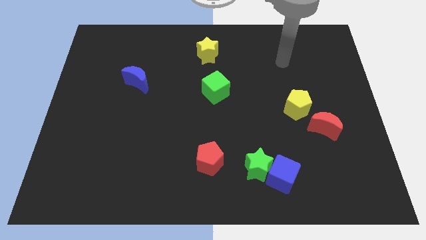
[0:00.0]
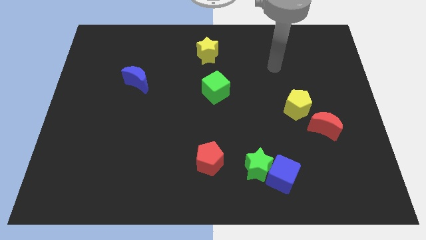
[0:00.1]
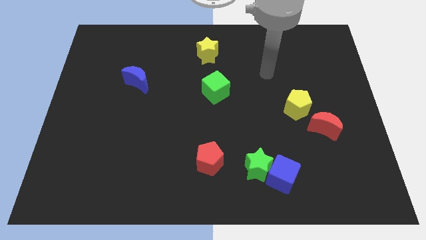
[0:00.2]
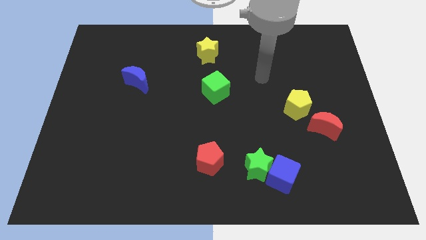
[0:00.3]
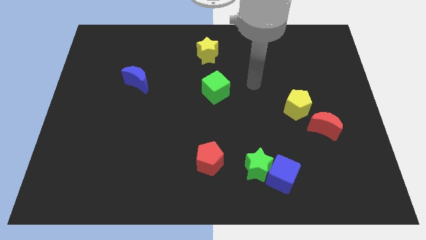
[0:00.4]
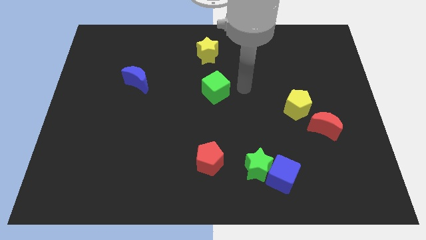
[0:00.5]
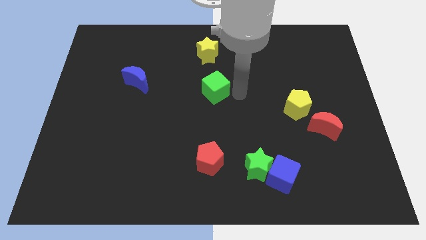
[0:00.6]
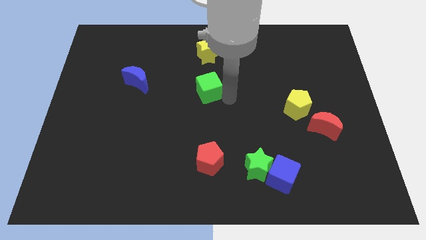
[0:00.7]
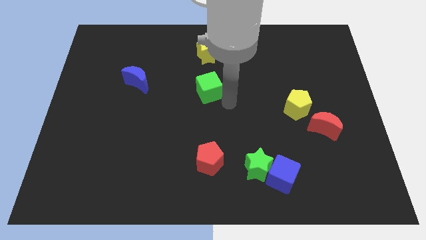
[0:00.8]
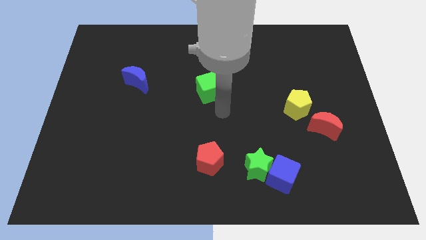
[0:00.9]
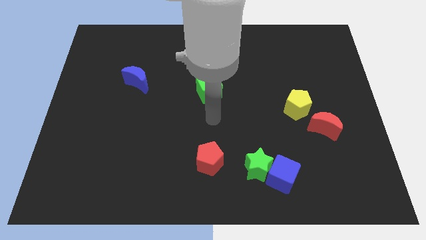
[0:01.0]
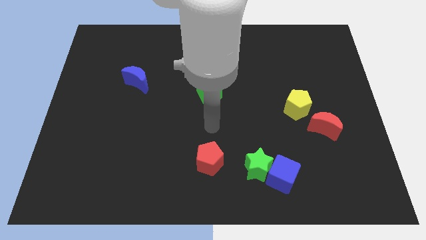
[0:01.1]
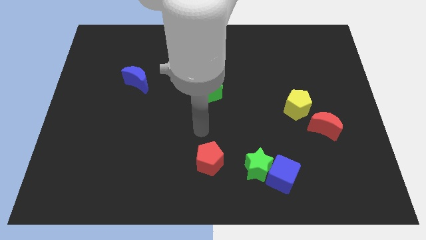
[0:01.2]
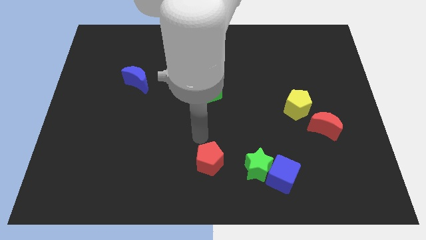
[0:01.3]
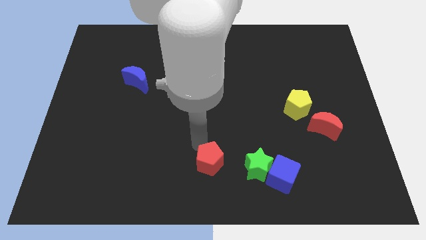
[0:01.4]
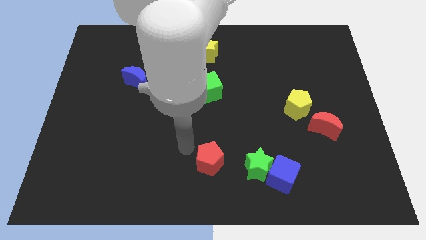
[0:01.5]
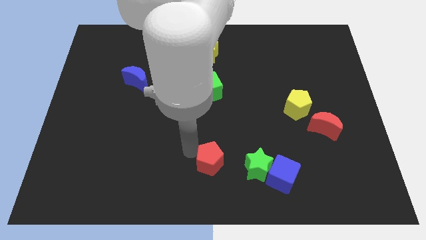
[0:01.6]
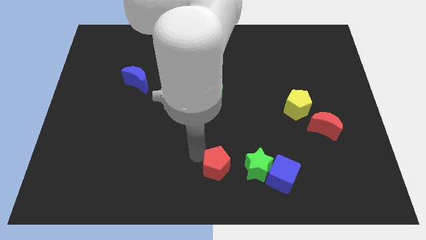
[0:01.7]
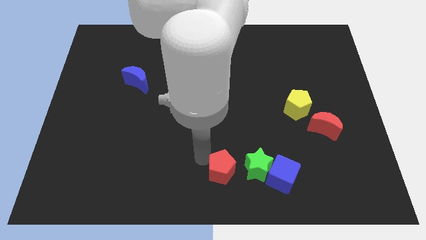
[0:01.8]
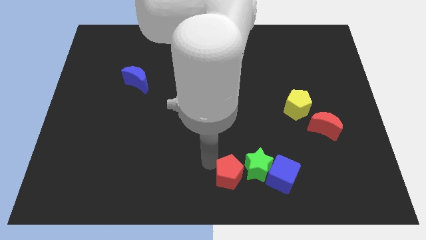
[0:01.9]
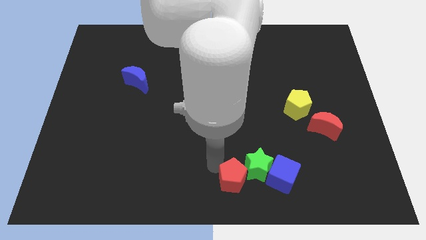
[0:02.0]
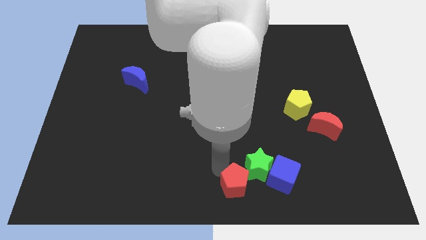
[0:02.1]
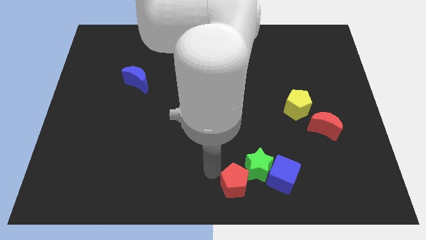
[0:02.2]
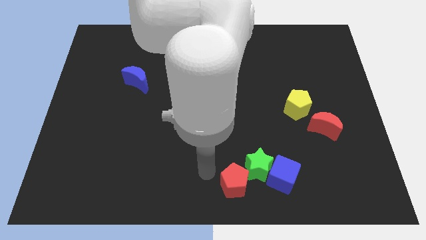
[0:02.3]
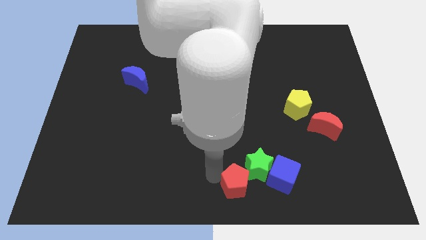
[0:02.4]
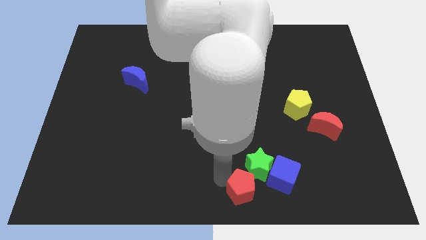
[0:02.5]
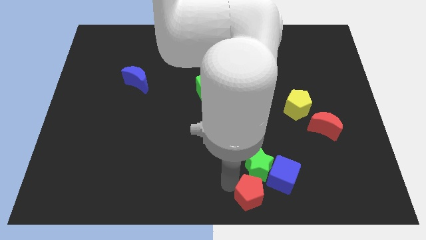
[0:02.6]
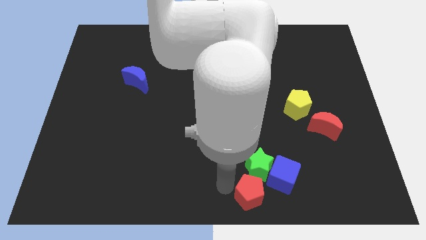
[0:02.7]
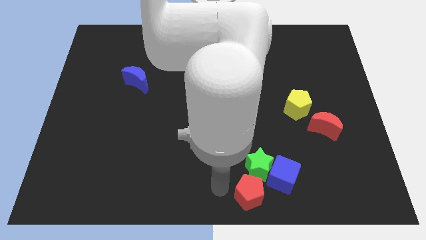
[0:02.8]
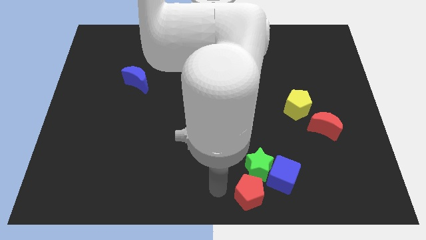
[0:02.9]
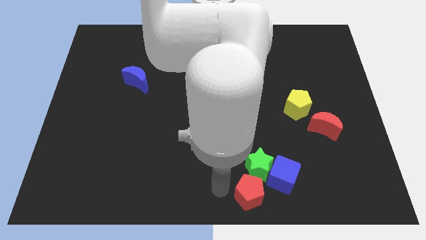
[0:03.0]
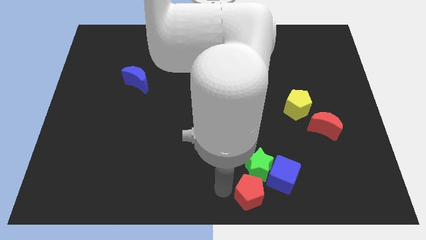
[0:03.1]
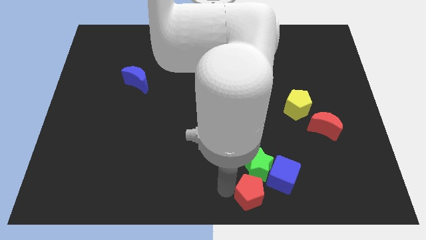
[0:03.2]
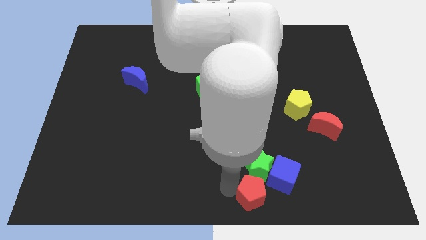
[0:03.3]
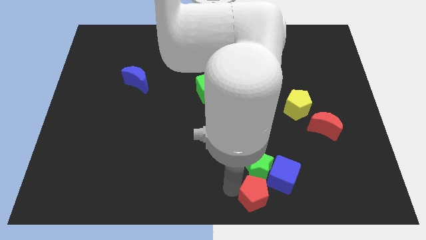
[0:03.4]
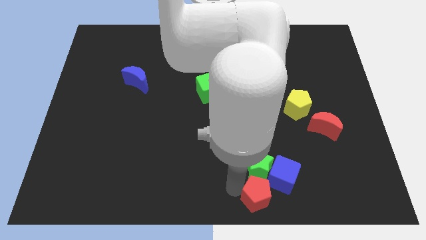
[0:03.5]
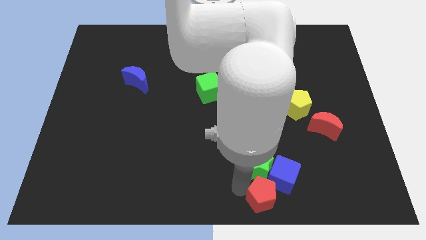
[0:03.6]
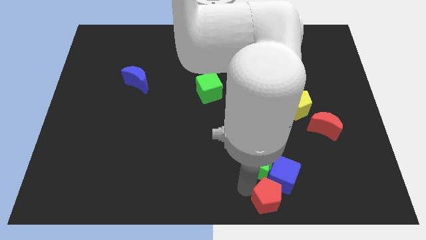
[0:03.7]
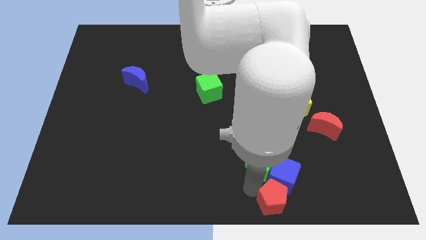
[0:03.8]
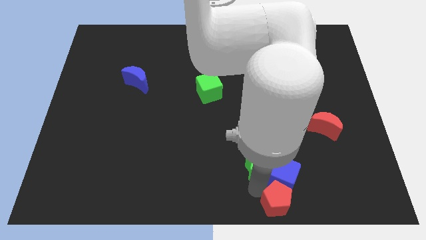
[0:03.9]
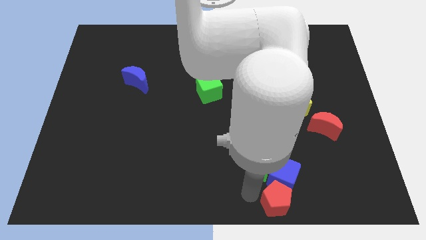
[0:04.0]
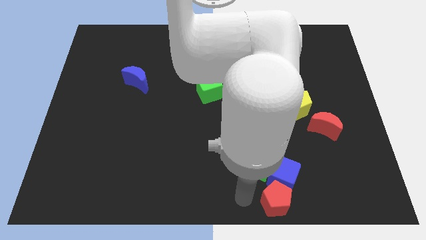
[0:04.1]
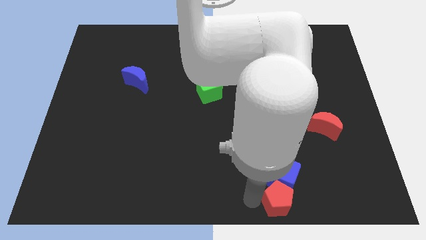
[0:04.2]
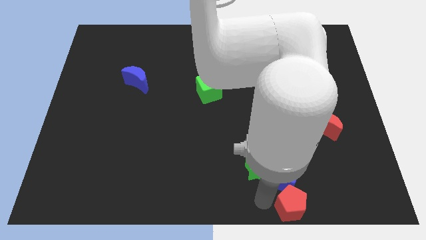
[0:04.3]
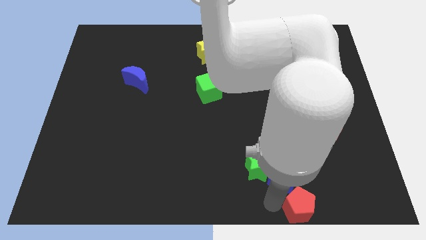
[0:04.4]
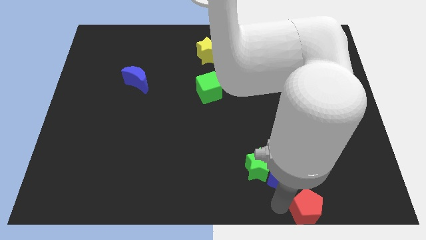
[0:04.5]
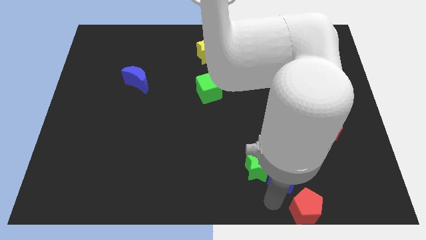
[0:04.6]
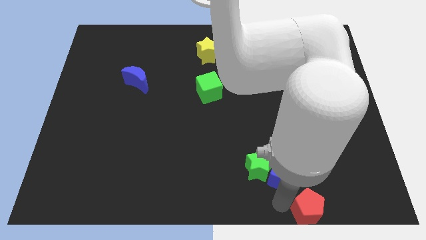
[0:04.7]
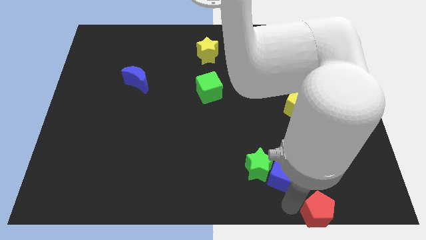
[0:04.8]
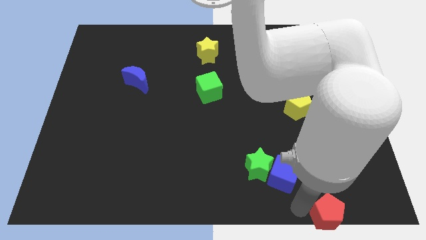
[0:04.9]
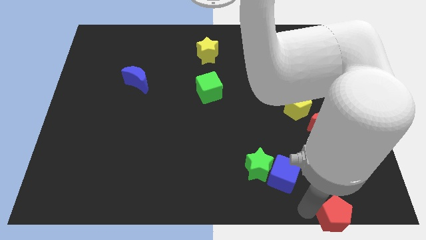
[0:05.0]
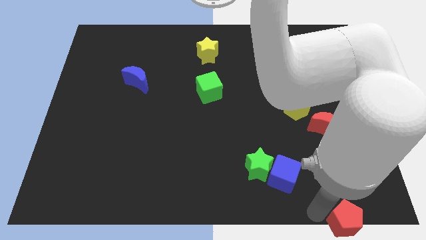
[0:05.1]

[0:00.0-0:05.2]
push the red pentagon to the bottom right of the board

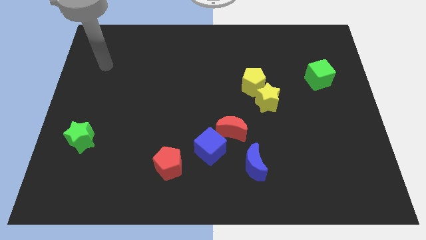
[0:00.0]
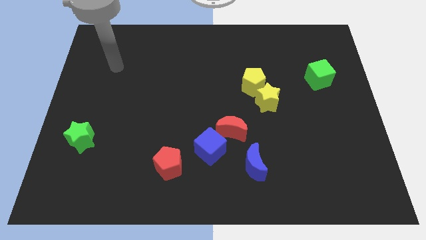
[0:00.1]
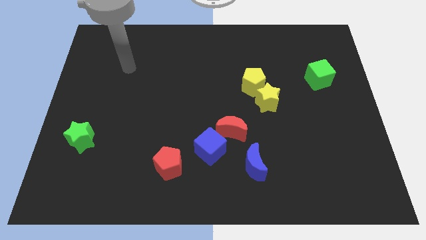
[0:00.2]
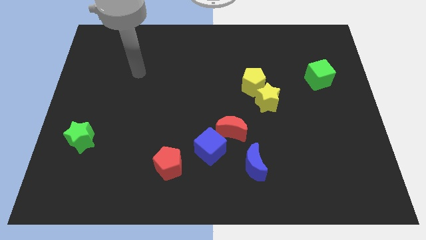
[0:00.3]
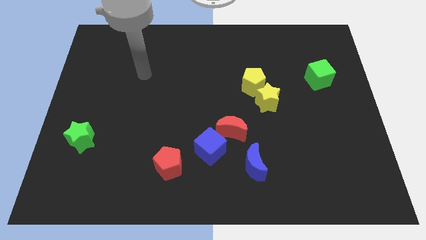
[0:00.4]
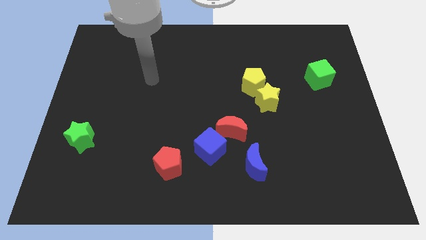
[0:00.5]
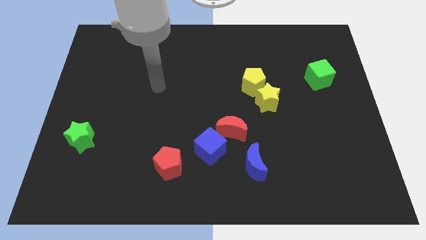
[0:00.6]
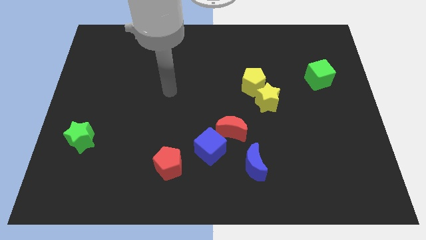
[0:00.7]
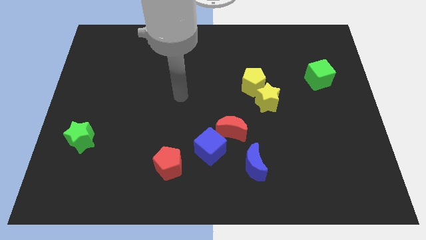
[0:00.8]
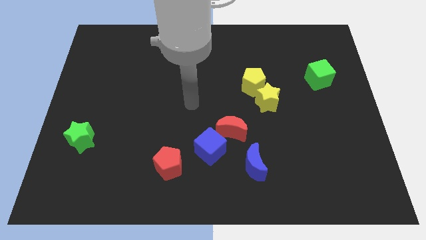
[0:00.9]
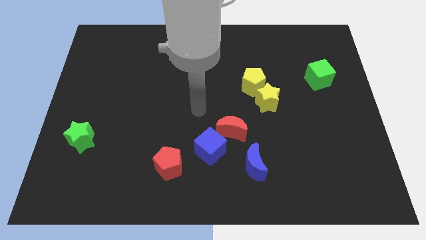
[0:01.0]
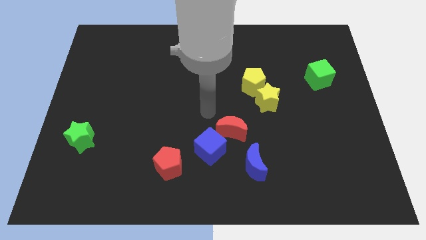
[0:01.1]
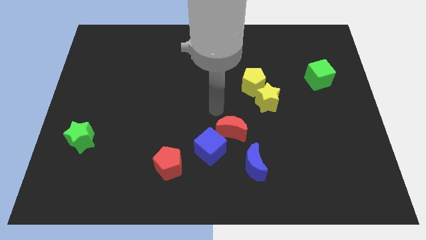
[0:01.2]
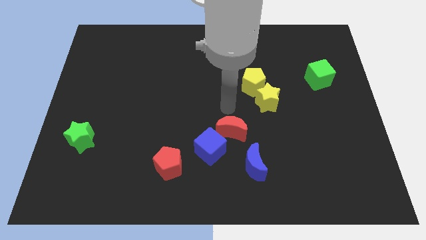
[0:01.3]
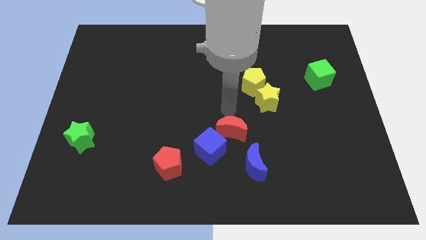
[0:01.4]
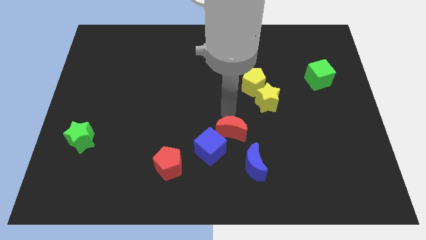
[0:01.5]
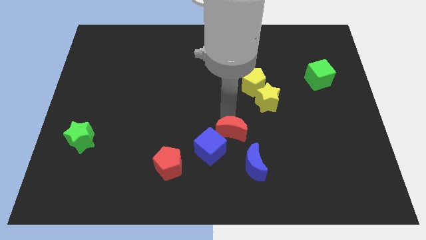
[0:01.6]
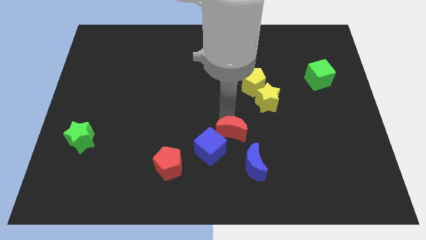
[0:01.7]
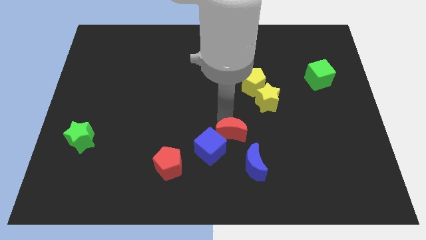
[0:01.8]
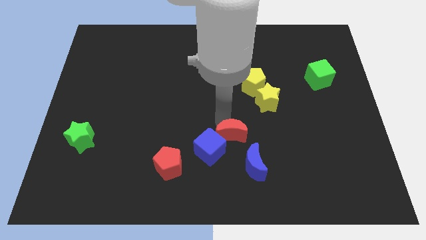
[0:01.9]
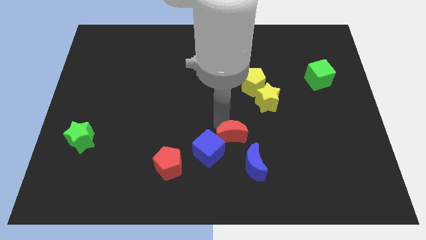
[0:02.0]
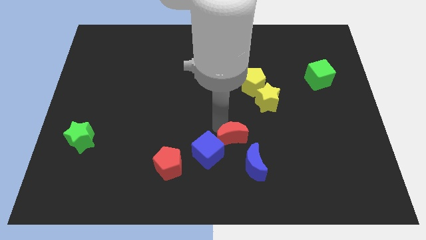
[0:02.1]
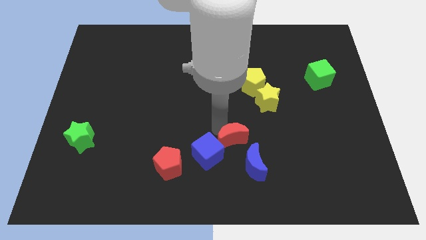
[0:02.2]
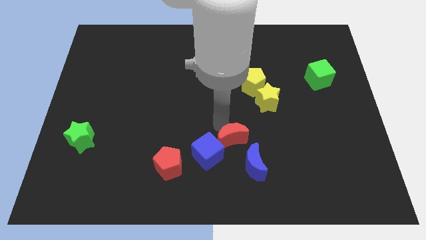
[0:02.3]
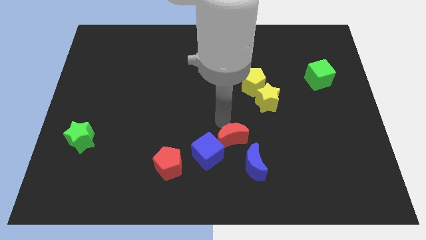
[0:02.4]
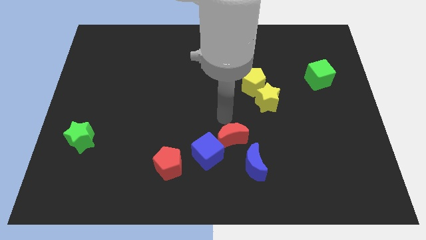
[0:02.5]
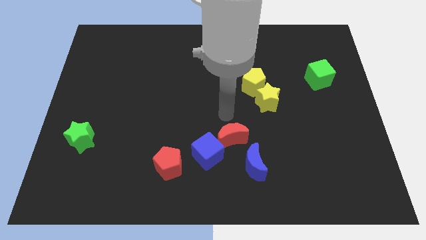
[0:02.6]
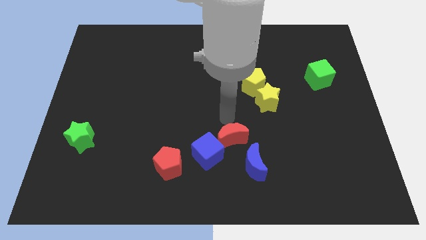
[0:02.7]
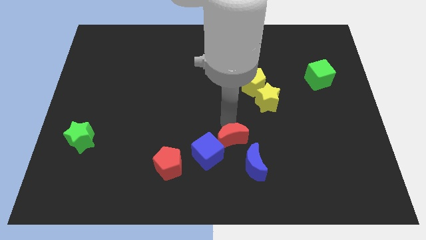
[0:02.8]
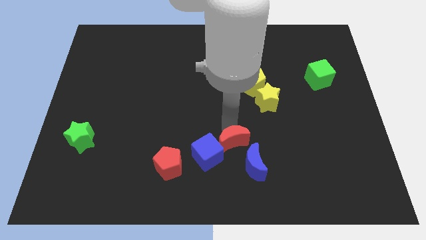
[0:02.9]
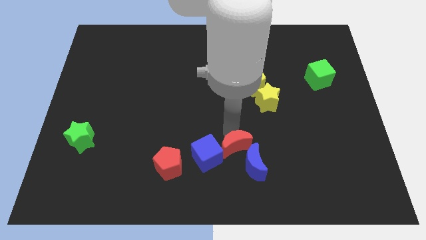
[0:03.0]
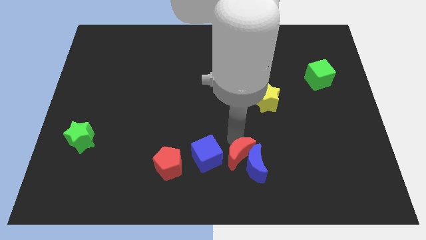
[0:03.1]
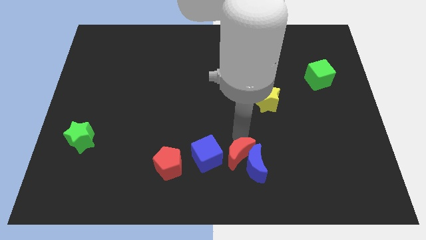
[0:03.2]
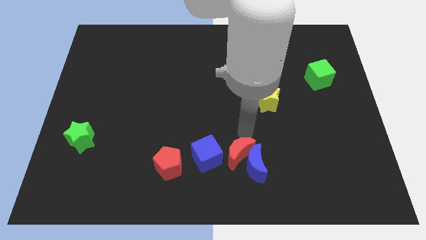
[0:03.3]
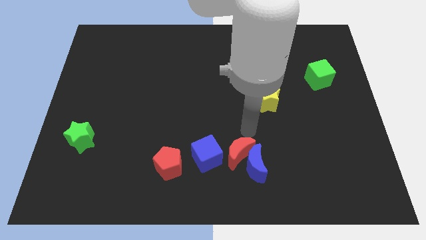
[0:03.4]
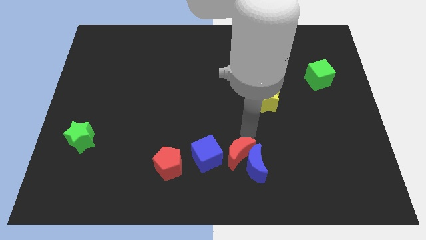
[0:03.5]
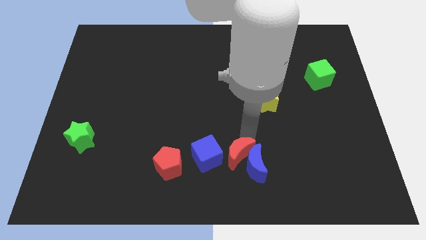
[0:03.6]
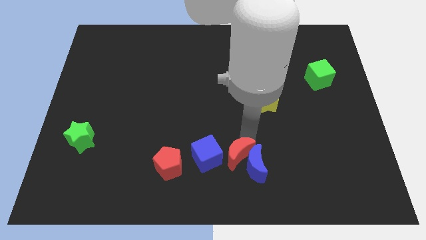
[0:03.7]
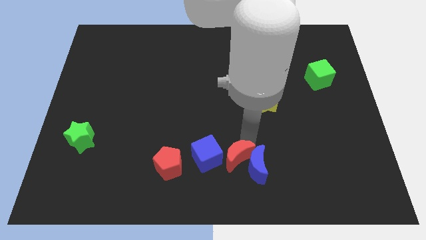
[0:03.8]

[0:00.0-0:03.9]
slide the red moon to the bottom side
